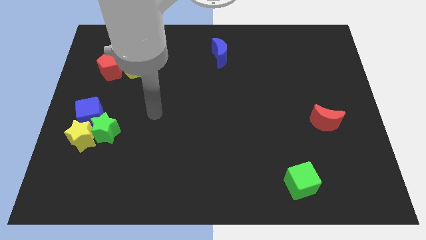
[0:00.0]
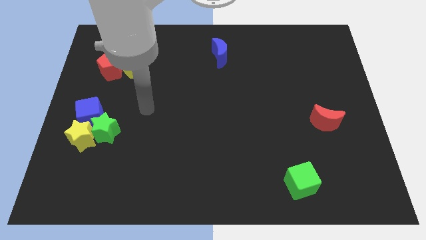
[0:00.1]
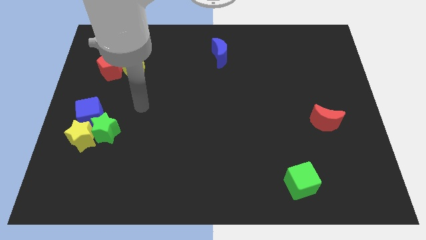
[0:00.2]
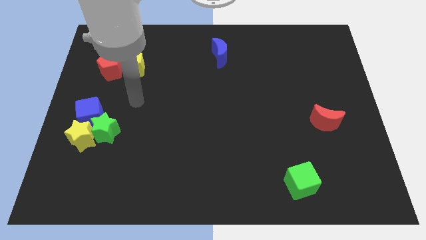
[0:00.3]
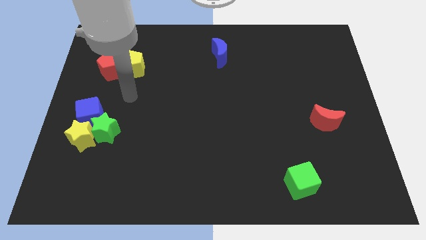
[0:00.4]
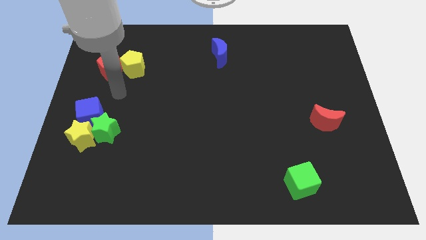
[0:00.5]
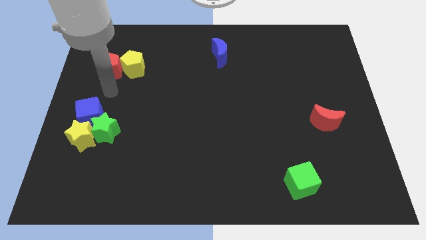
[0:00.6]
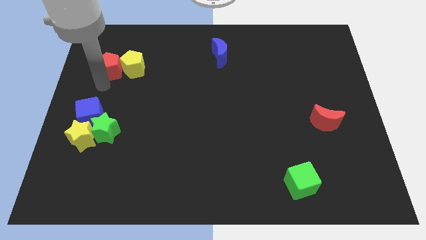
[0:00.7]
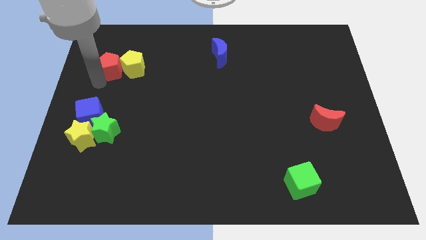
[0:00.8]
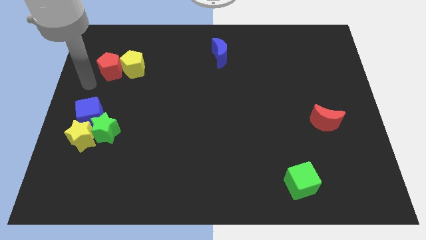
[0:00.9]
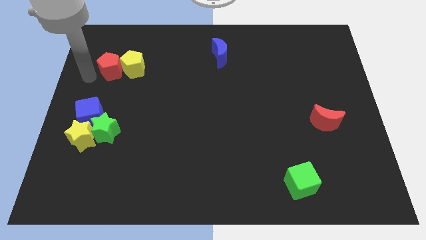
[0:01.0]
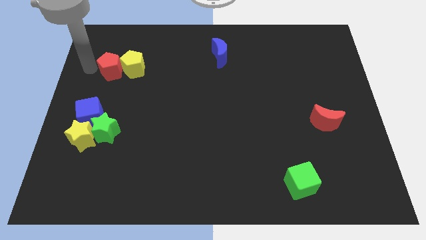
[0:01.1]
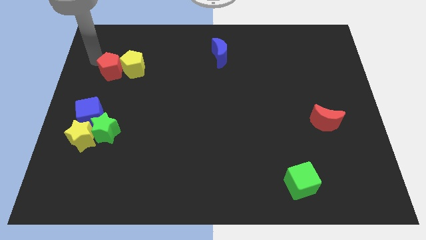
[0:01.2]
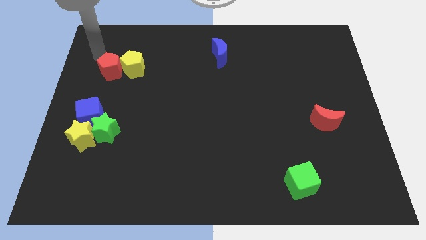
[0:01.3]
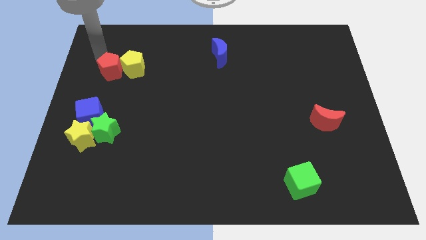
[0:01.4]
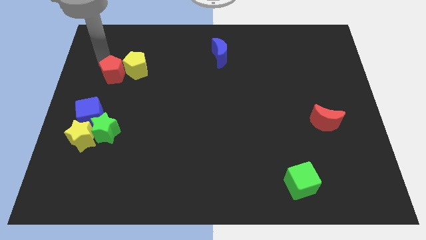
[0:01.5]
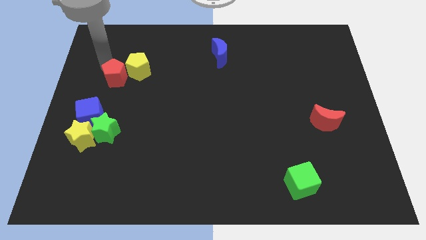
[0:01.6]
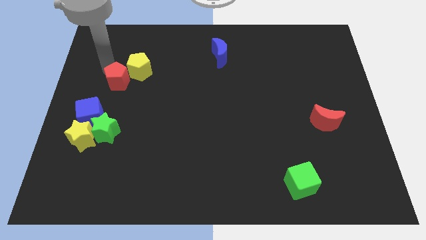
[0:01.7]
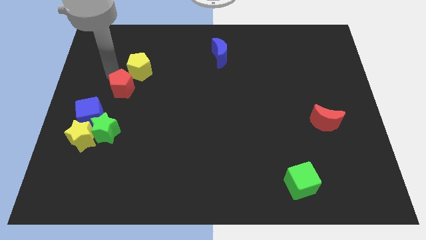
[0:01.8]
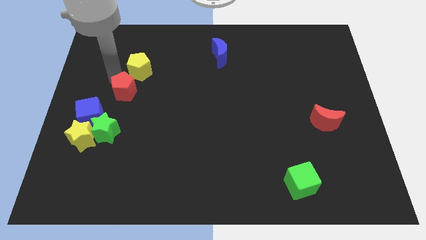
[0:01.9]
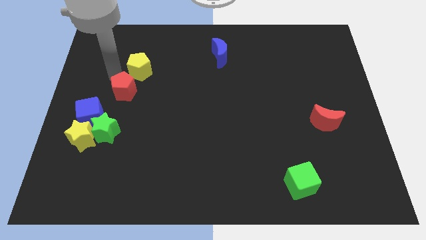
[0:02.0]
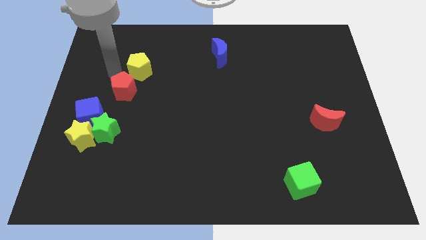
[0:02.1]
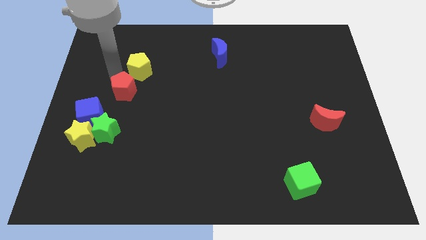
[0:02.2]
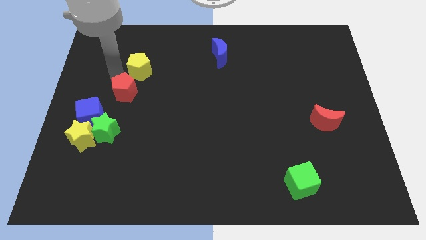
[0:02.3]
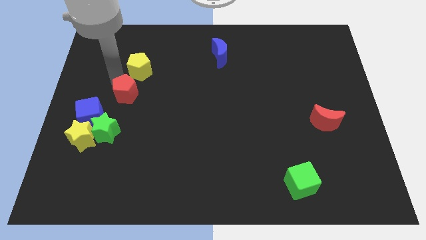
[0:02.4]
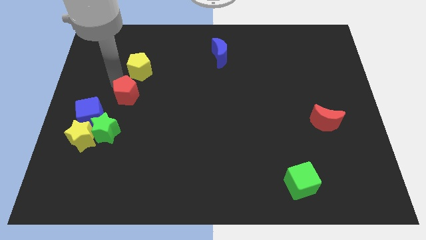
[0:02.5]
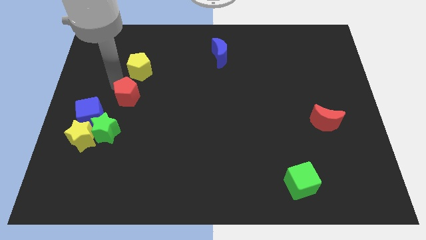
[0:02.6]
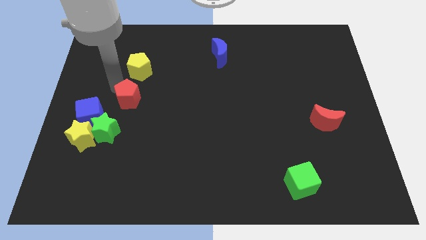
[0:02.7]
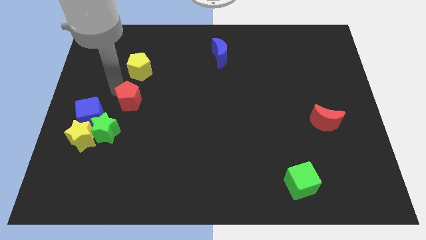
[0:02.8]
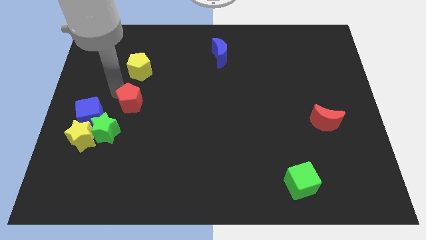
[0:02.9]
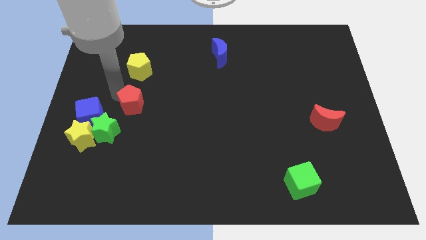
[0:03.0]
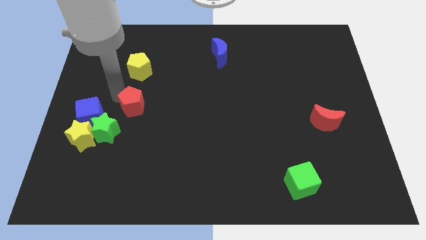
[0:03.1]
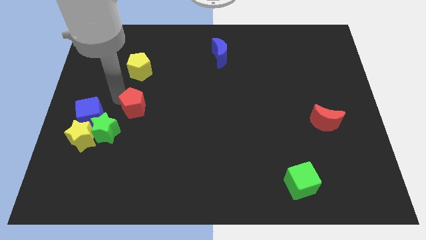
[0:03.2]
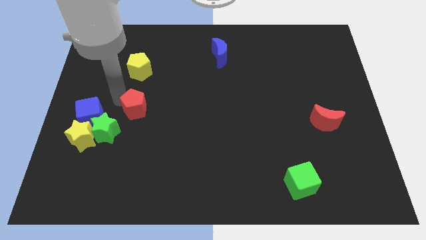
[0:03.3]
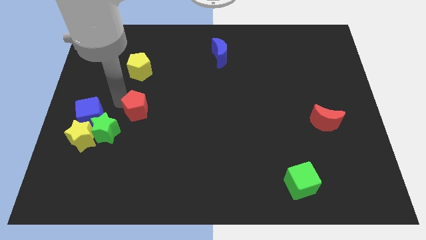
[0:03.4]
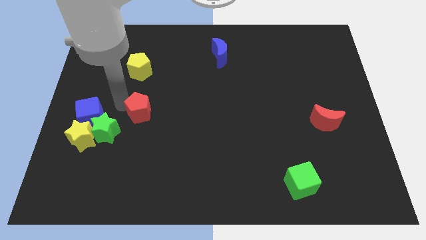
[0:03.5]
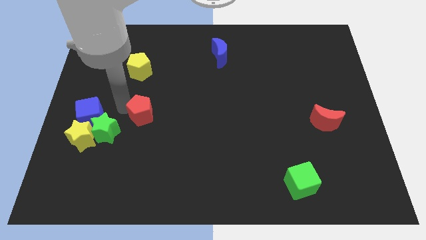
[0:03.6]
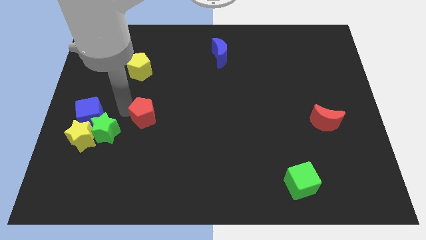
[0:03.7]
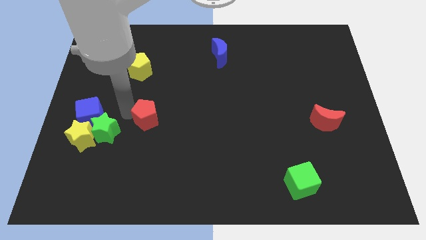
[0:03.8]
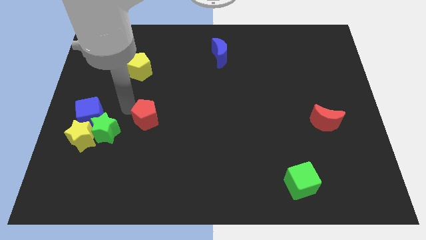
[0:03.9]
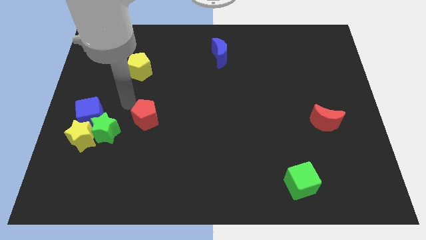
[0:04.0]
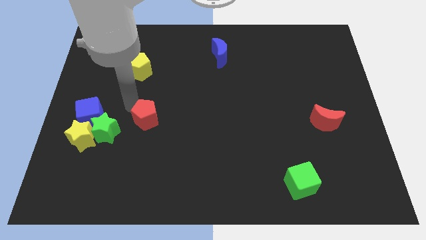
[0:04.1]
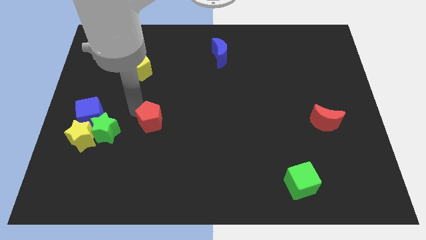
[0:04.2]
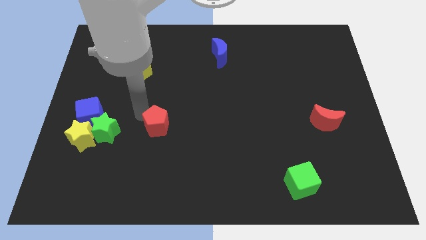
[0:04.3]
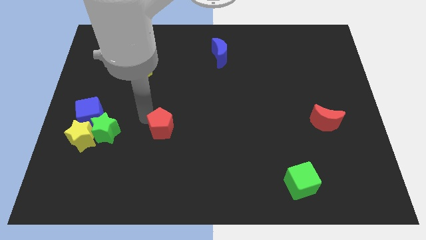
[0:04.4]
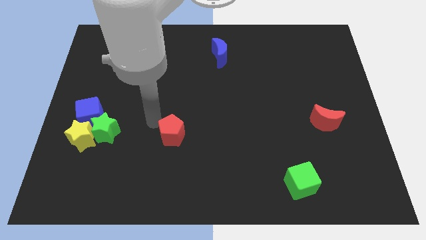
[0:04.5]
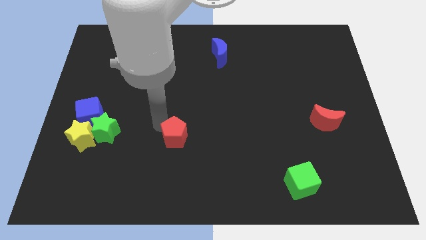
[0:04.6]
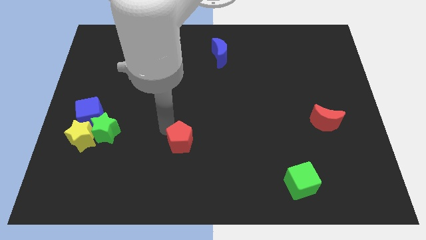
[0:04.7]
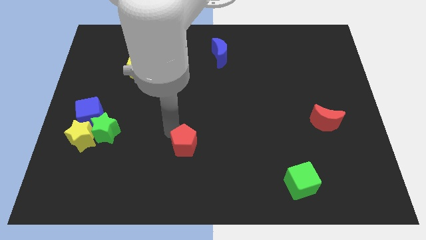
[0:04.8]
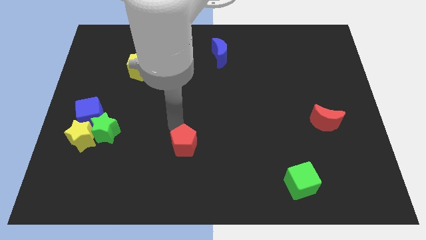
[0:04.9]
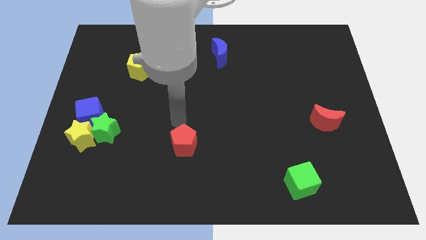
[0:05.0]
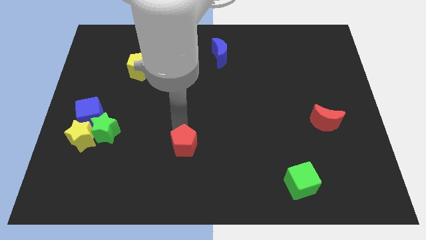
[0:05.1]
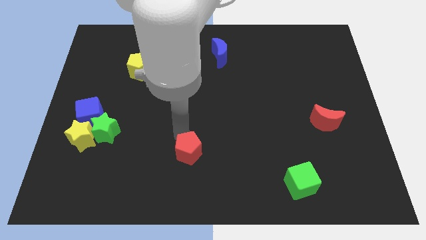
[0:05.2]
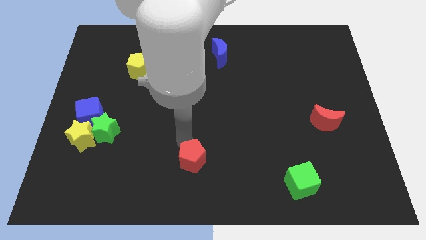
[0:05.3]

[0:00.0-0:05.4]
move the red pentagon to the bottom

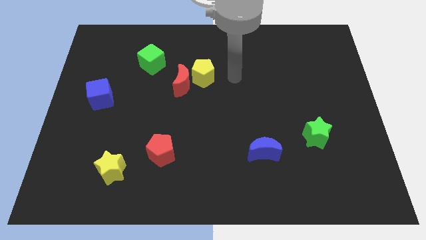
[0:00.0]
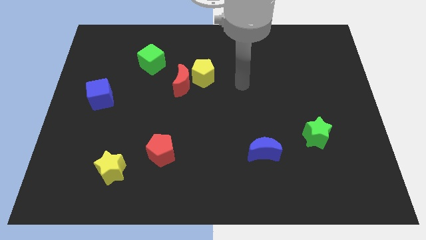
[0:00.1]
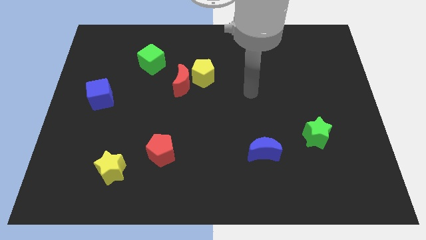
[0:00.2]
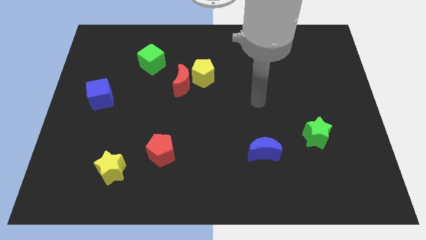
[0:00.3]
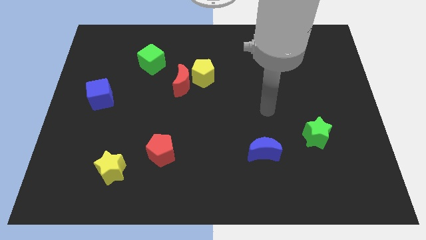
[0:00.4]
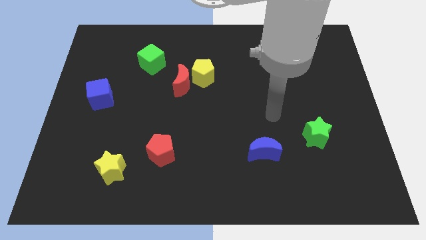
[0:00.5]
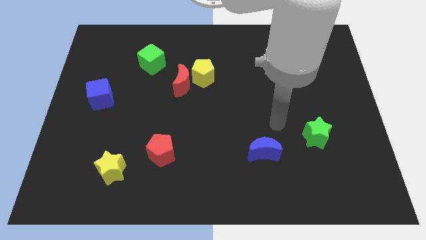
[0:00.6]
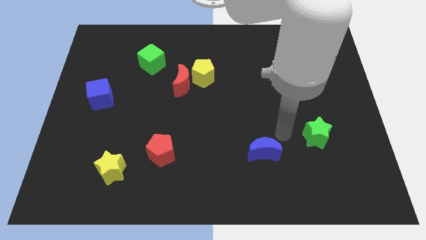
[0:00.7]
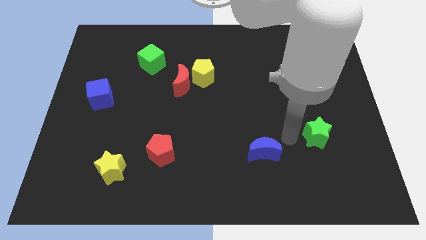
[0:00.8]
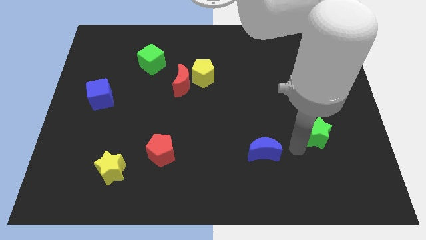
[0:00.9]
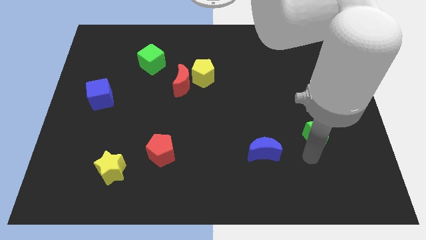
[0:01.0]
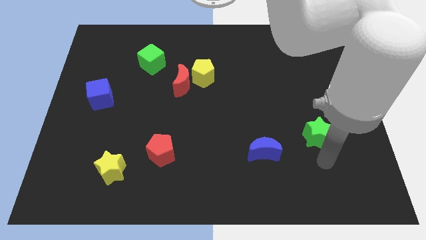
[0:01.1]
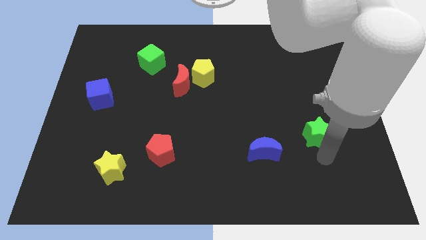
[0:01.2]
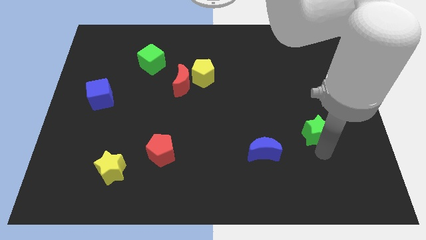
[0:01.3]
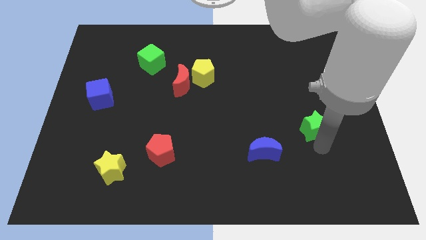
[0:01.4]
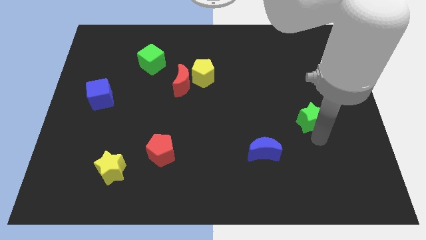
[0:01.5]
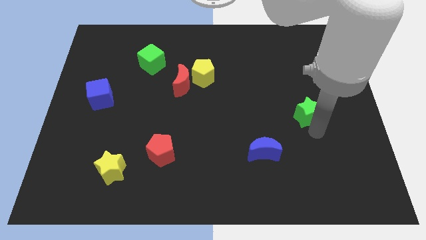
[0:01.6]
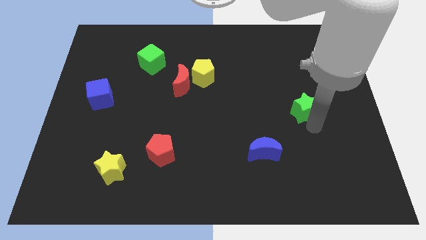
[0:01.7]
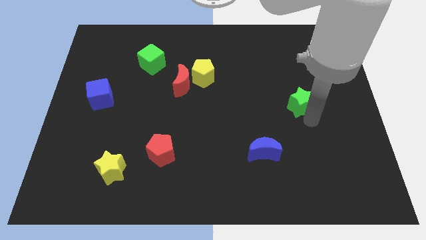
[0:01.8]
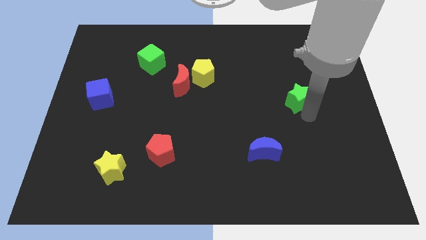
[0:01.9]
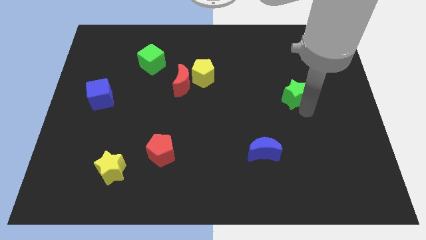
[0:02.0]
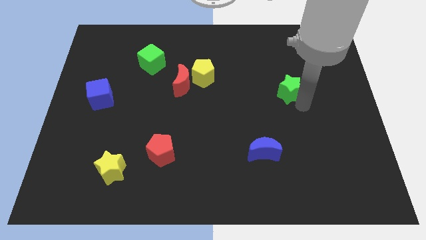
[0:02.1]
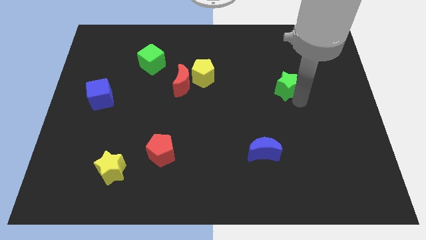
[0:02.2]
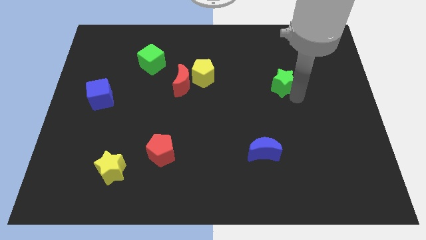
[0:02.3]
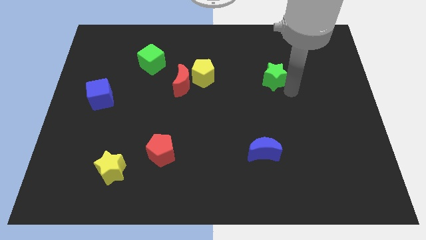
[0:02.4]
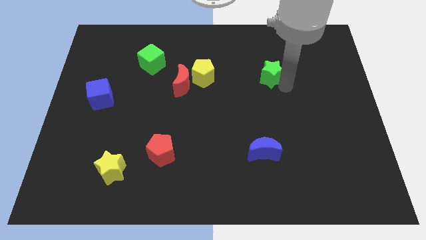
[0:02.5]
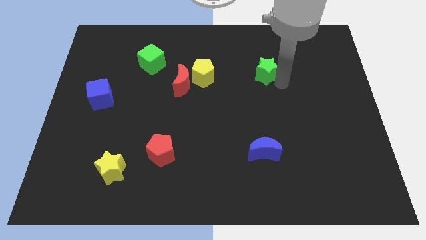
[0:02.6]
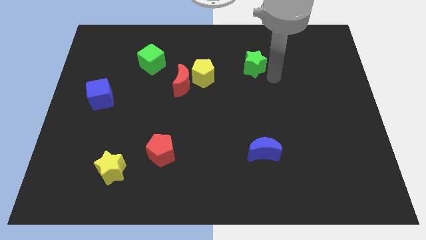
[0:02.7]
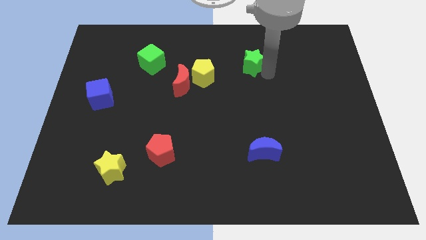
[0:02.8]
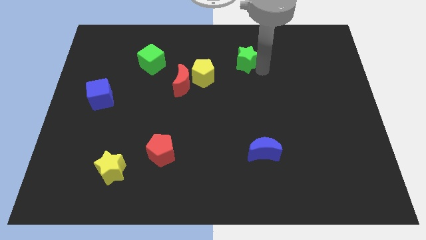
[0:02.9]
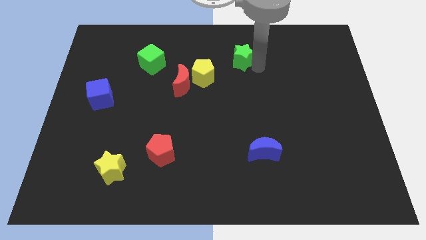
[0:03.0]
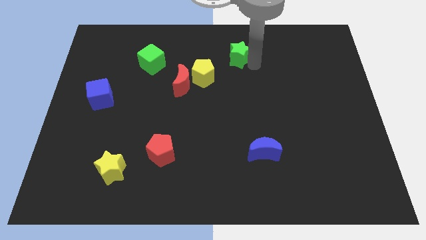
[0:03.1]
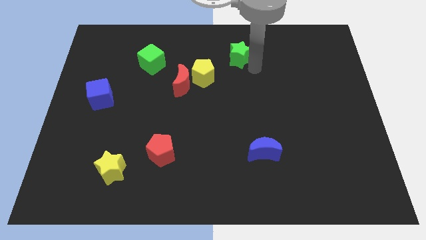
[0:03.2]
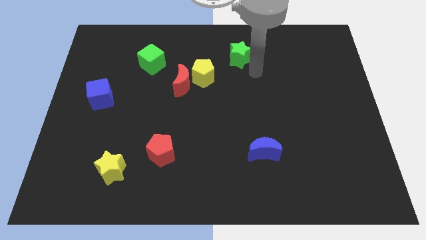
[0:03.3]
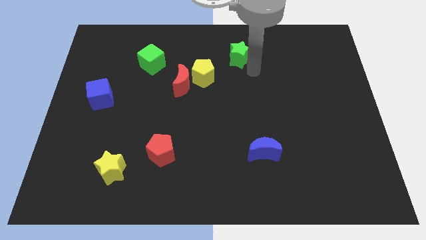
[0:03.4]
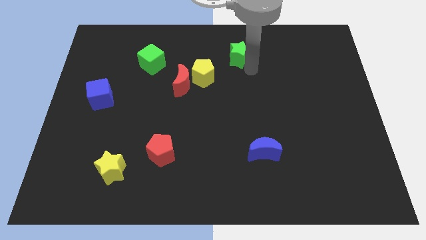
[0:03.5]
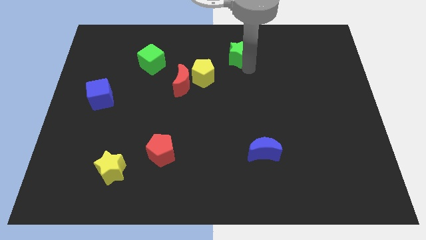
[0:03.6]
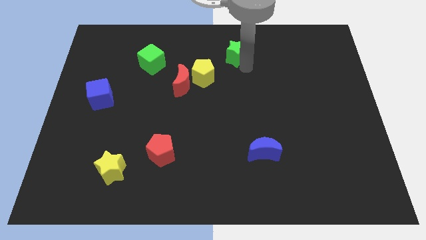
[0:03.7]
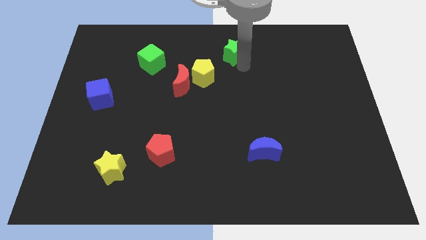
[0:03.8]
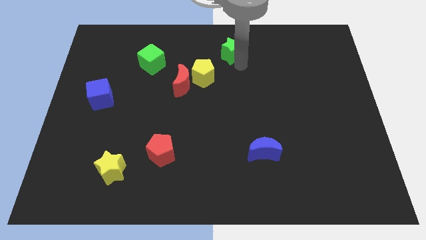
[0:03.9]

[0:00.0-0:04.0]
push the green star to the top side
